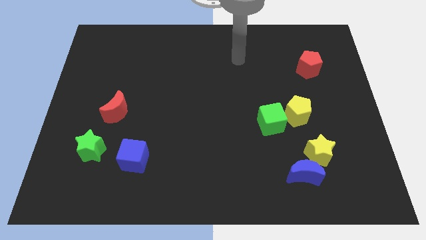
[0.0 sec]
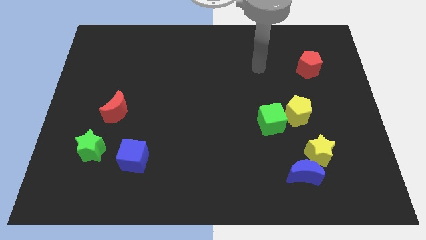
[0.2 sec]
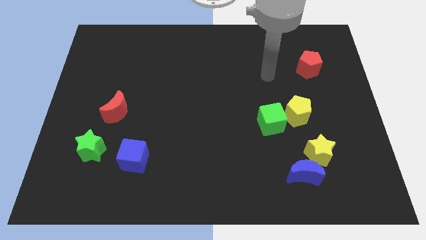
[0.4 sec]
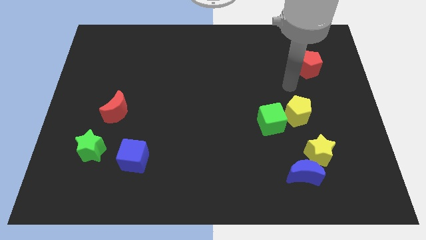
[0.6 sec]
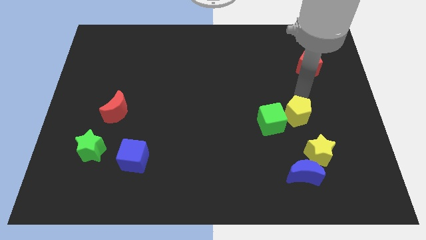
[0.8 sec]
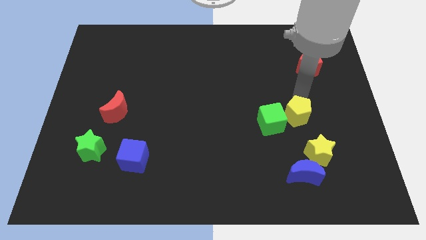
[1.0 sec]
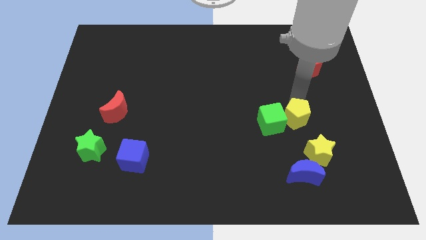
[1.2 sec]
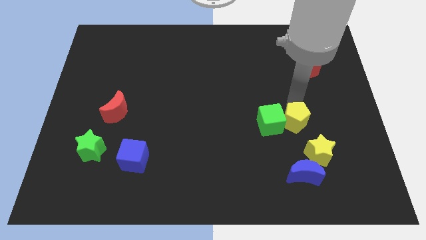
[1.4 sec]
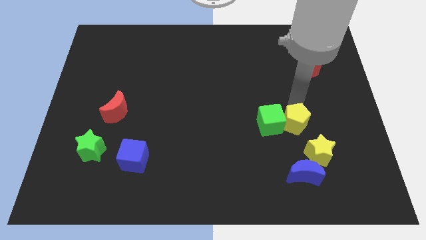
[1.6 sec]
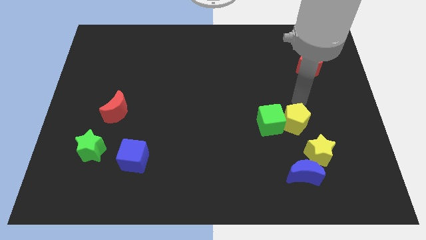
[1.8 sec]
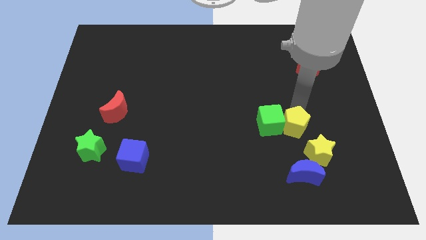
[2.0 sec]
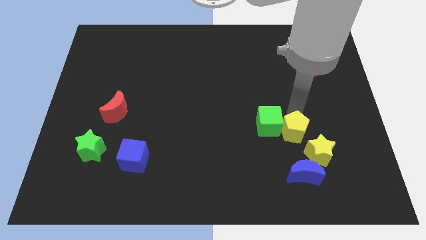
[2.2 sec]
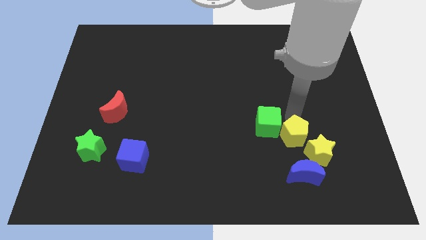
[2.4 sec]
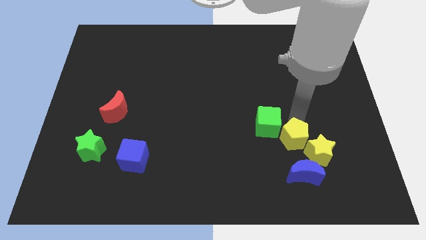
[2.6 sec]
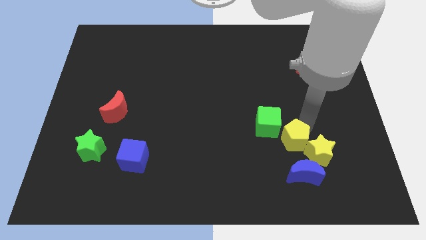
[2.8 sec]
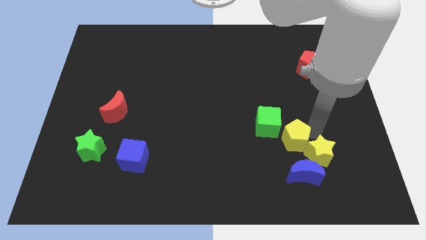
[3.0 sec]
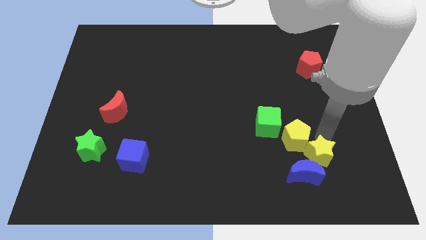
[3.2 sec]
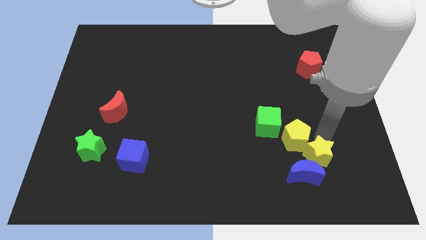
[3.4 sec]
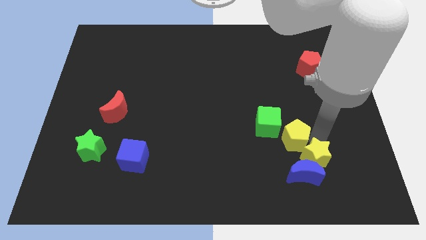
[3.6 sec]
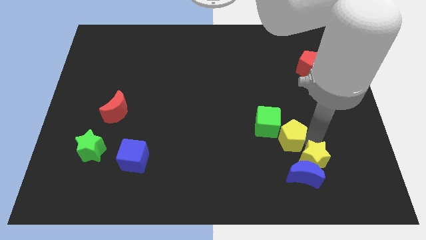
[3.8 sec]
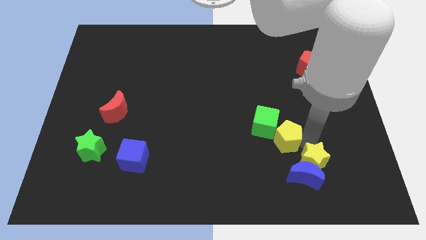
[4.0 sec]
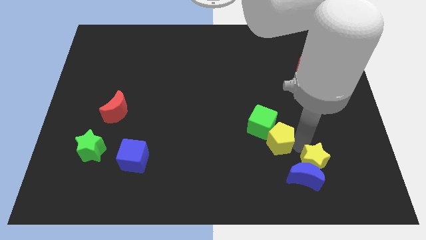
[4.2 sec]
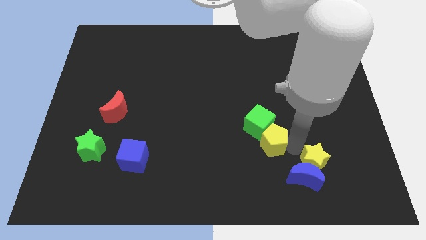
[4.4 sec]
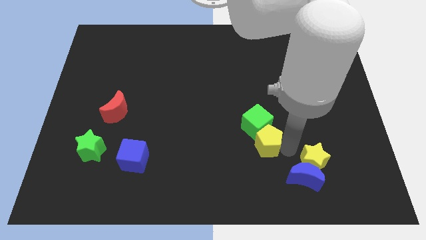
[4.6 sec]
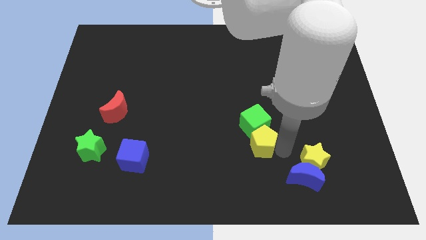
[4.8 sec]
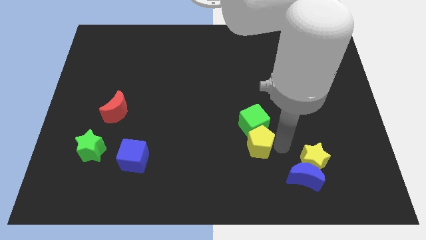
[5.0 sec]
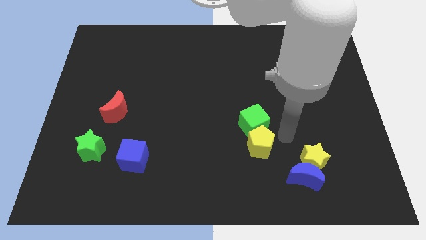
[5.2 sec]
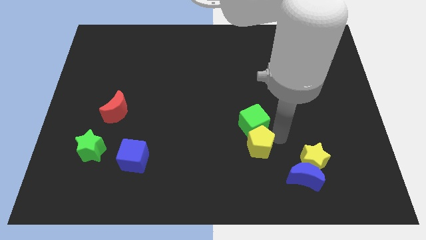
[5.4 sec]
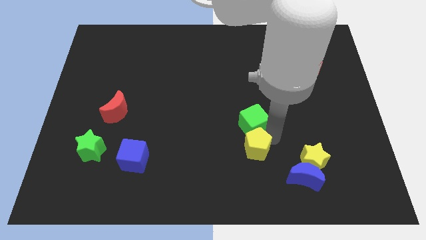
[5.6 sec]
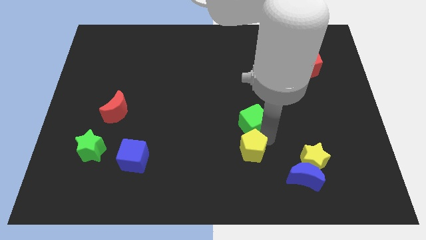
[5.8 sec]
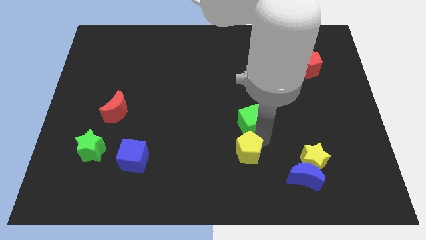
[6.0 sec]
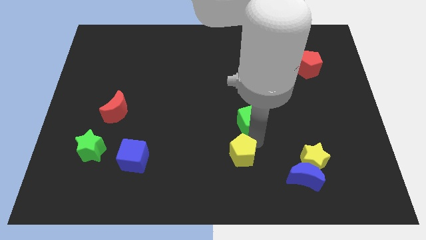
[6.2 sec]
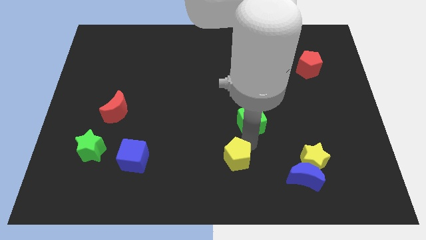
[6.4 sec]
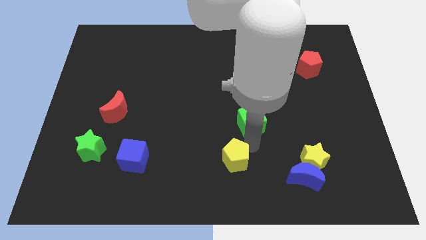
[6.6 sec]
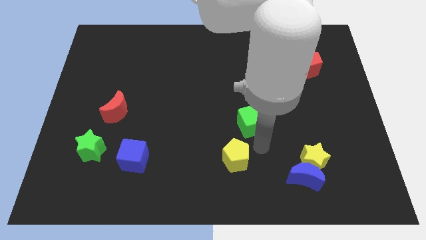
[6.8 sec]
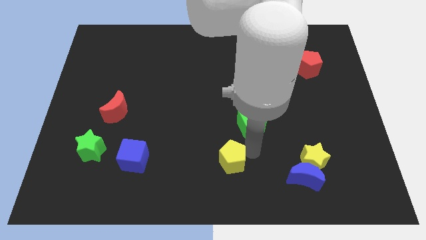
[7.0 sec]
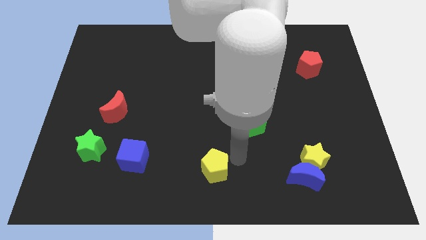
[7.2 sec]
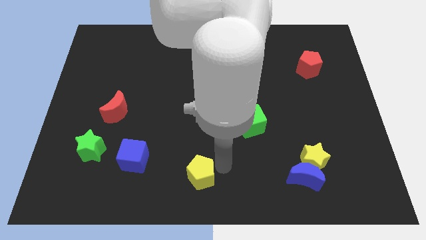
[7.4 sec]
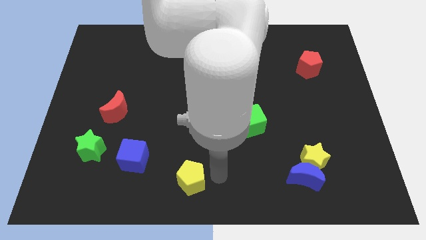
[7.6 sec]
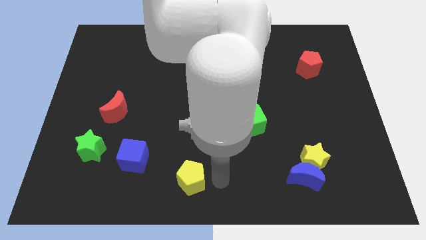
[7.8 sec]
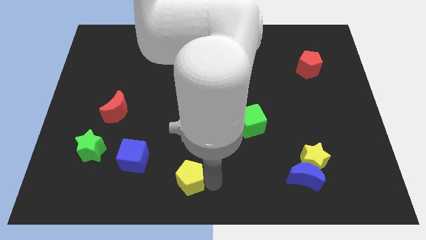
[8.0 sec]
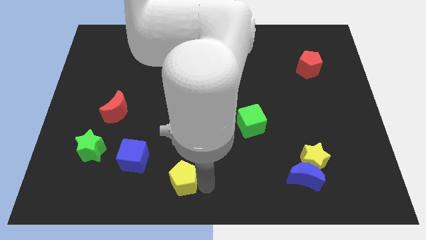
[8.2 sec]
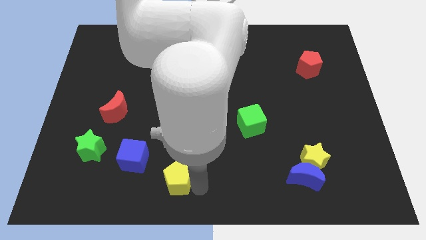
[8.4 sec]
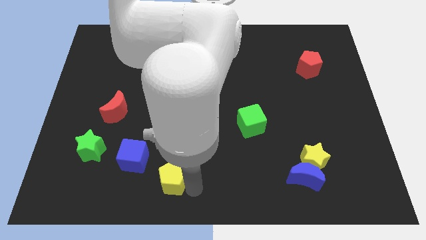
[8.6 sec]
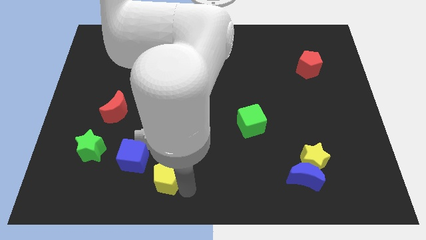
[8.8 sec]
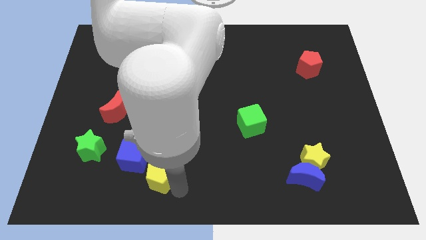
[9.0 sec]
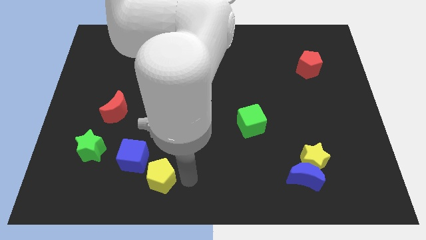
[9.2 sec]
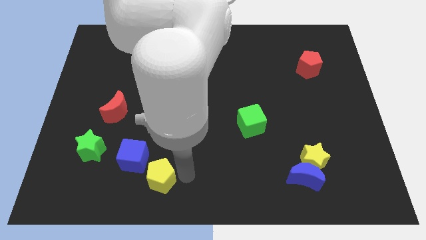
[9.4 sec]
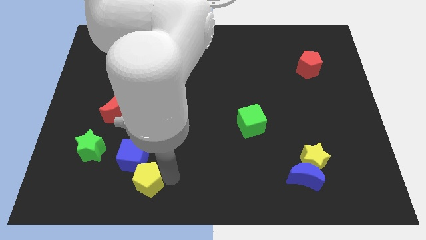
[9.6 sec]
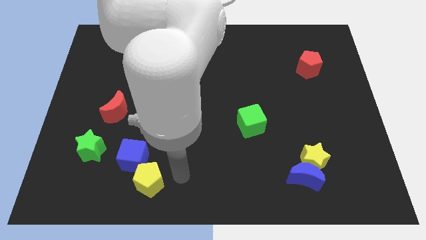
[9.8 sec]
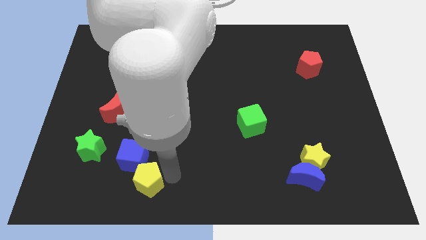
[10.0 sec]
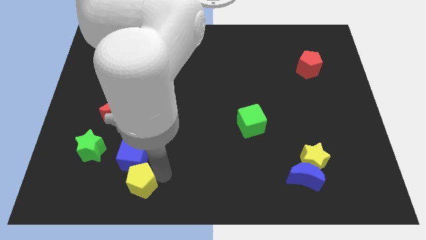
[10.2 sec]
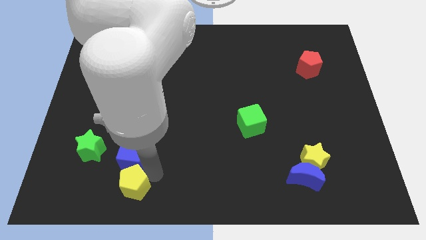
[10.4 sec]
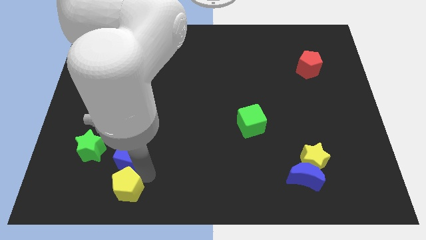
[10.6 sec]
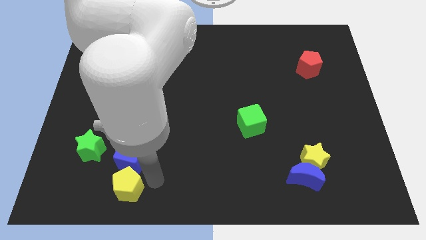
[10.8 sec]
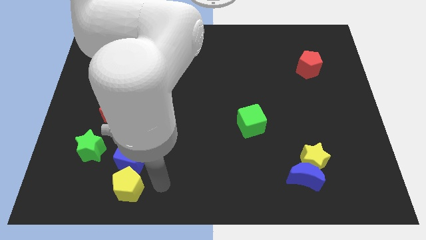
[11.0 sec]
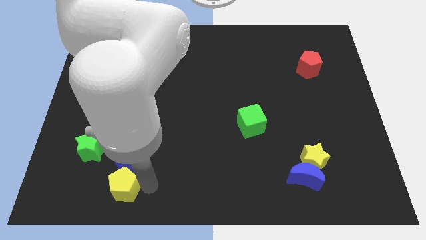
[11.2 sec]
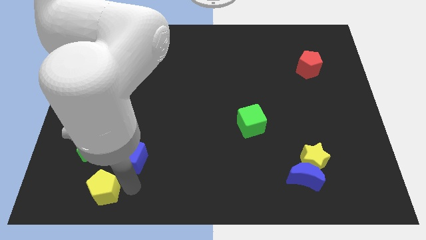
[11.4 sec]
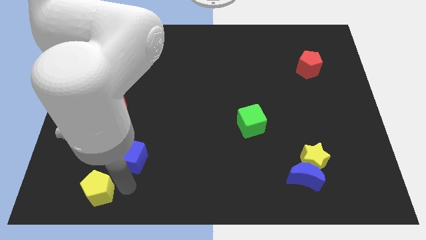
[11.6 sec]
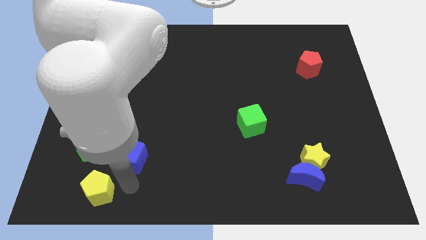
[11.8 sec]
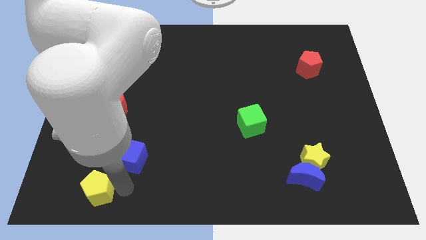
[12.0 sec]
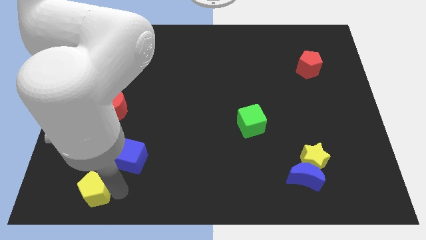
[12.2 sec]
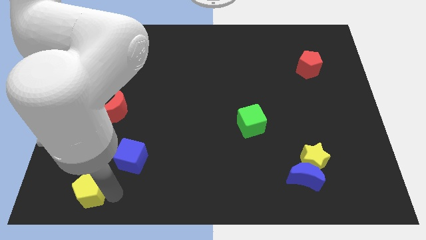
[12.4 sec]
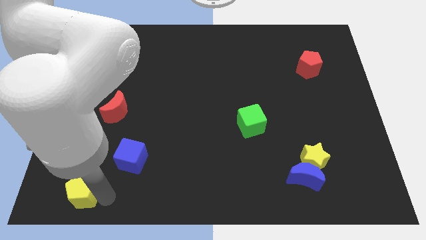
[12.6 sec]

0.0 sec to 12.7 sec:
move the yellow pentagon to the lower left corner
